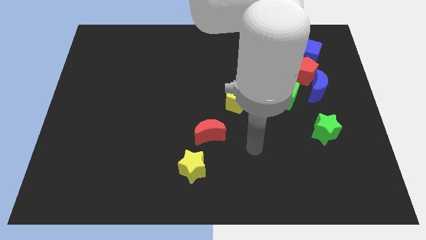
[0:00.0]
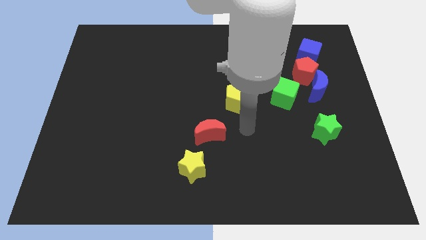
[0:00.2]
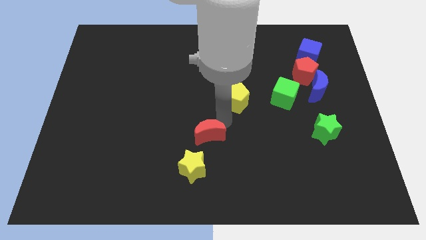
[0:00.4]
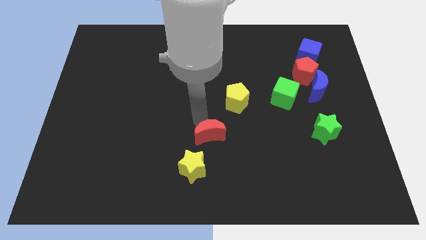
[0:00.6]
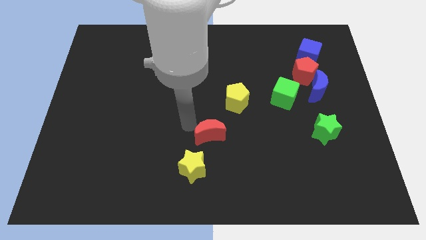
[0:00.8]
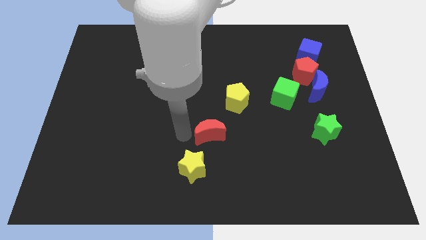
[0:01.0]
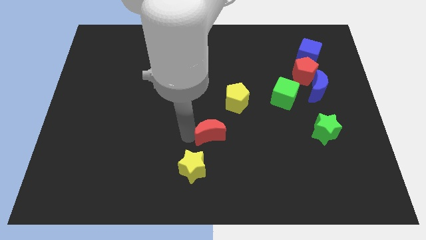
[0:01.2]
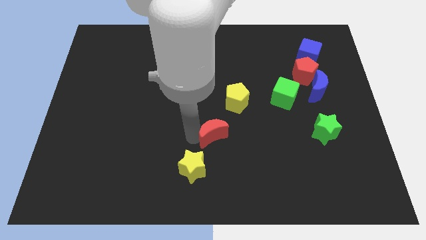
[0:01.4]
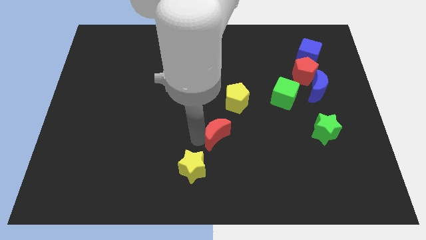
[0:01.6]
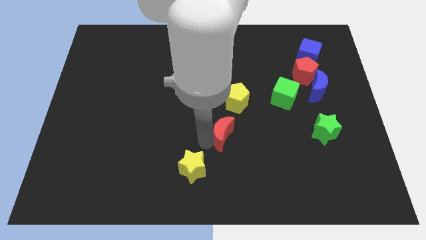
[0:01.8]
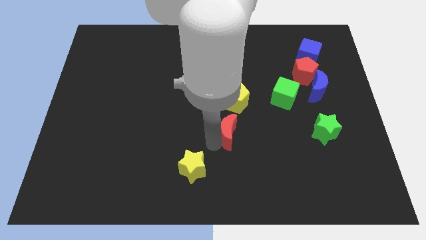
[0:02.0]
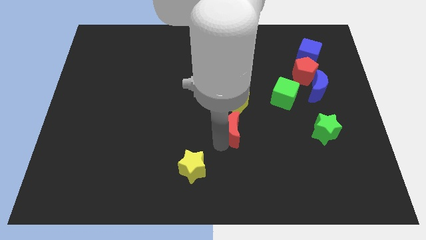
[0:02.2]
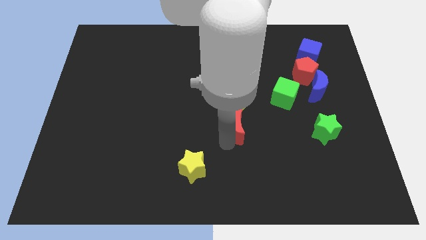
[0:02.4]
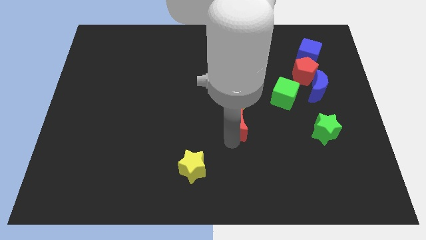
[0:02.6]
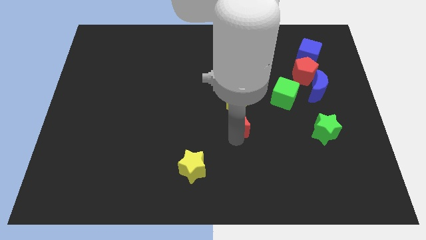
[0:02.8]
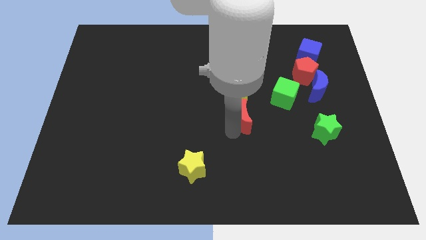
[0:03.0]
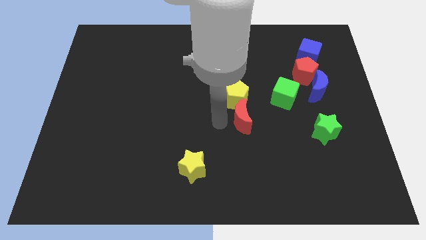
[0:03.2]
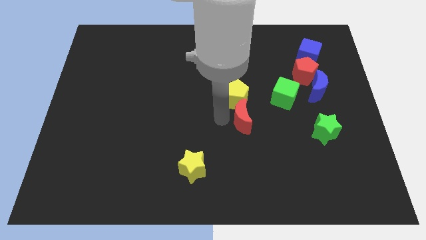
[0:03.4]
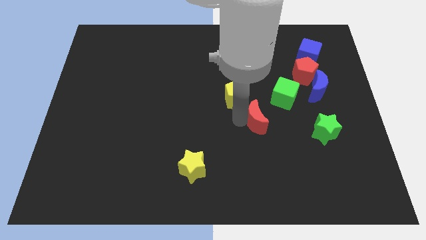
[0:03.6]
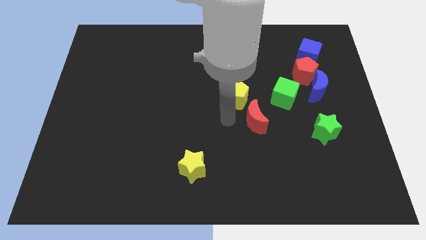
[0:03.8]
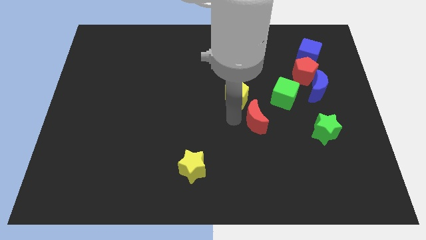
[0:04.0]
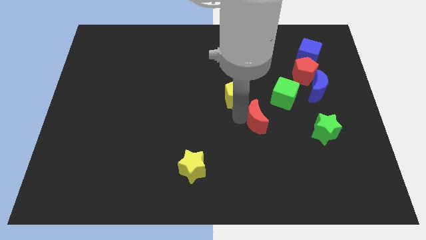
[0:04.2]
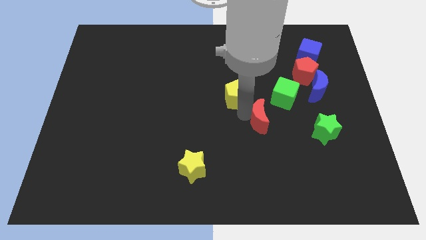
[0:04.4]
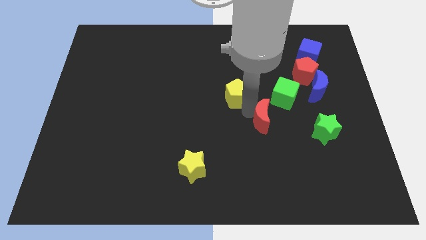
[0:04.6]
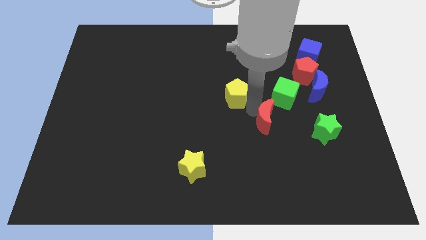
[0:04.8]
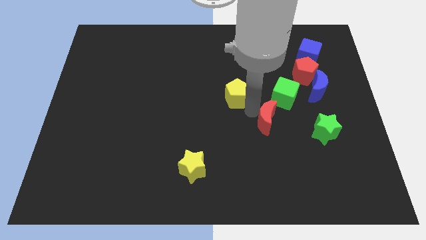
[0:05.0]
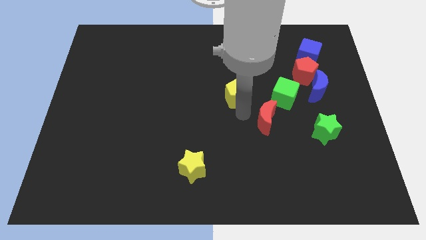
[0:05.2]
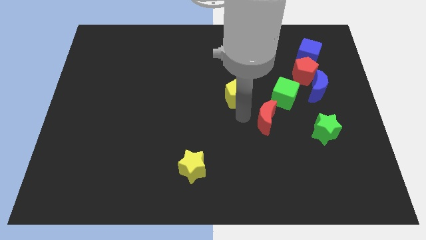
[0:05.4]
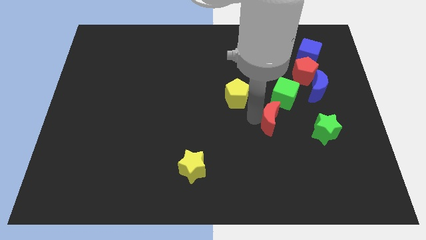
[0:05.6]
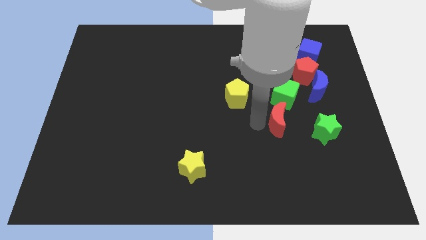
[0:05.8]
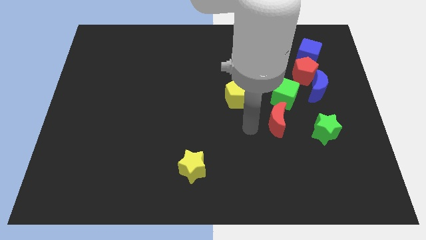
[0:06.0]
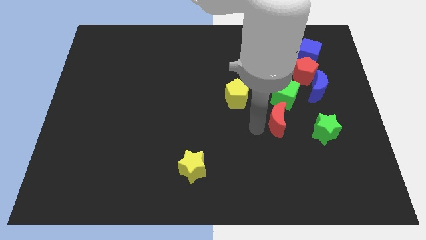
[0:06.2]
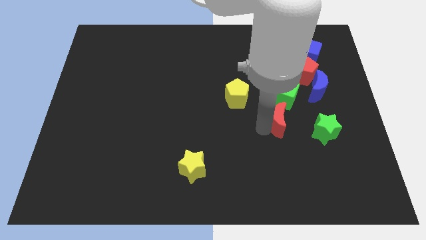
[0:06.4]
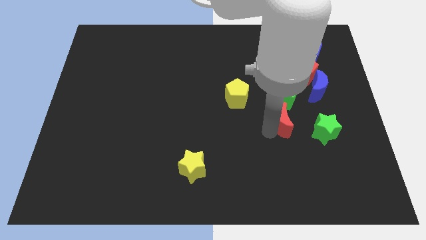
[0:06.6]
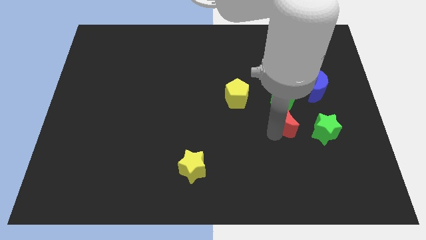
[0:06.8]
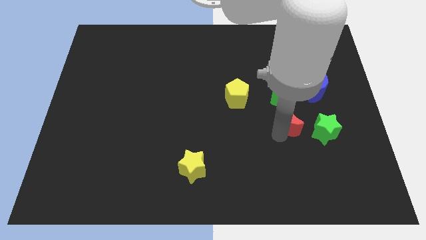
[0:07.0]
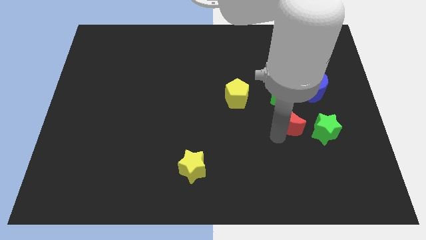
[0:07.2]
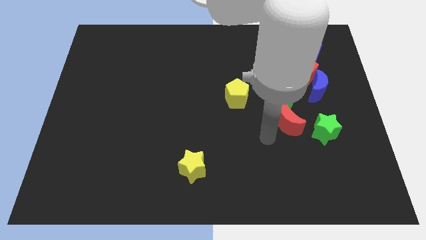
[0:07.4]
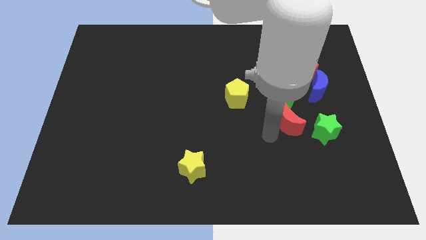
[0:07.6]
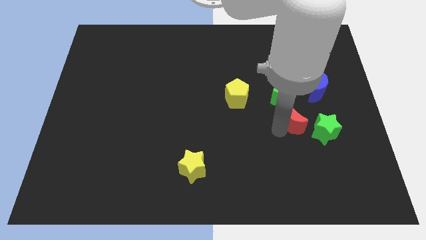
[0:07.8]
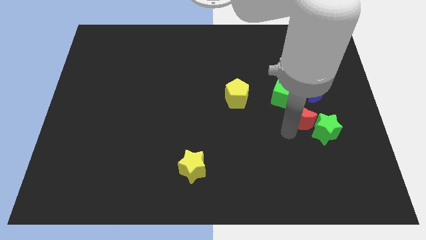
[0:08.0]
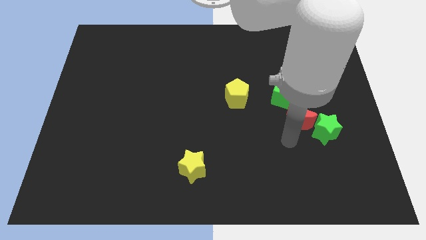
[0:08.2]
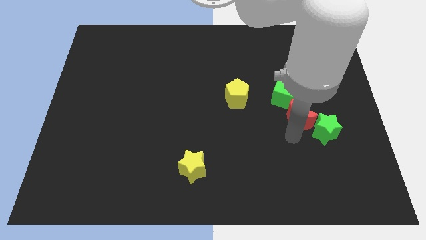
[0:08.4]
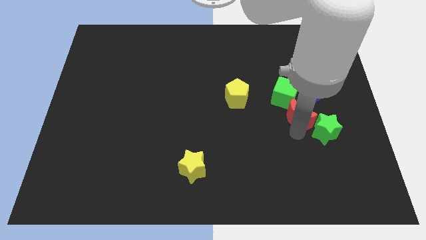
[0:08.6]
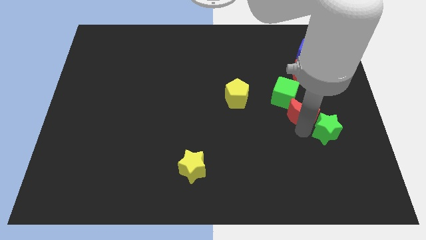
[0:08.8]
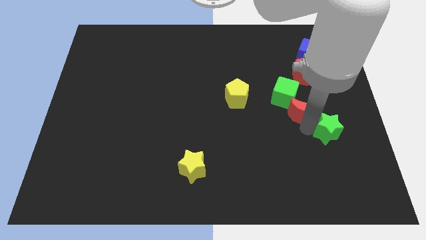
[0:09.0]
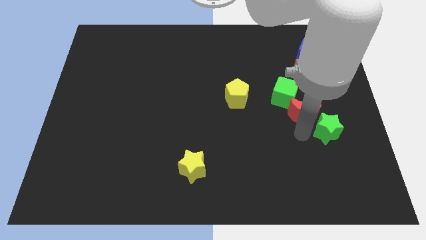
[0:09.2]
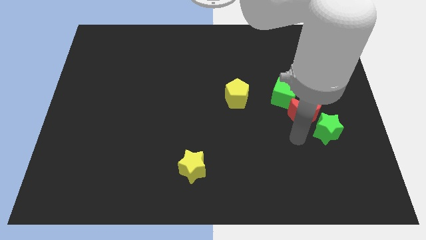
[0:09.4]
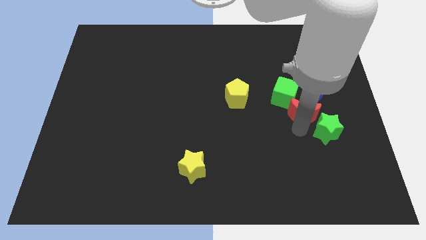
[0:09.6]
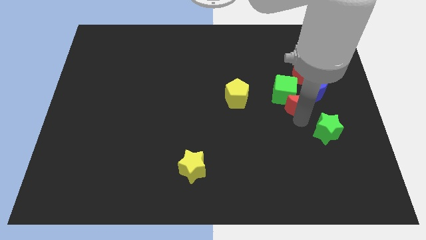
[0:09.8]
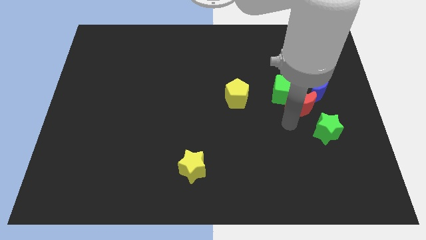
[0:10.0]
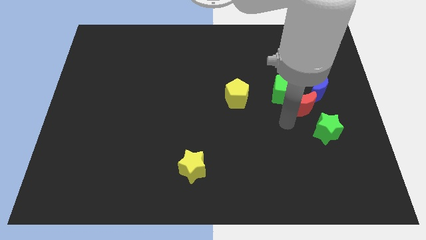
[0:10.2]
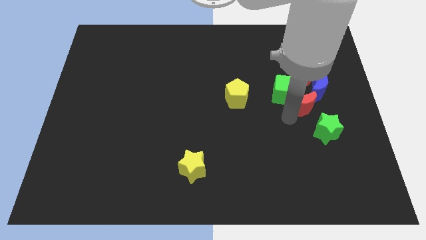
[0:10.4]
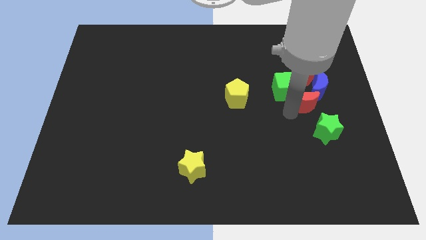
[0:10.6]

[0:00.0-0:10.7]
push the red moon to the blue moon

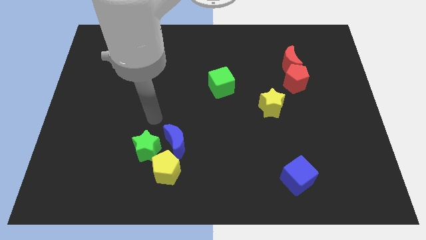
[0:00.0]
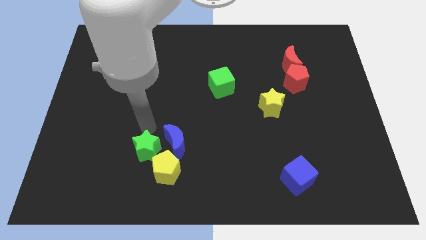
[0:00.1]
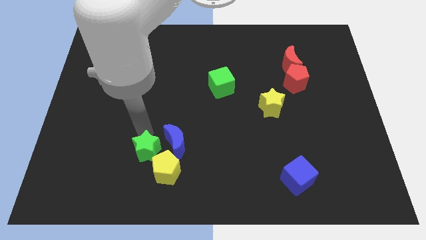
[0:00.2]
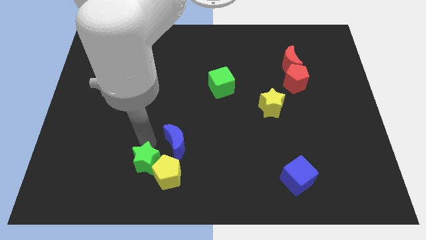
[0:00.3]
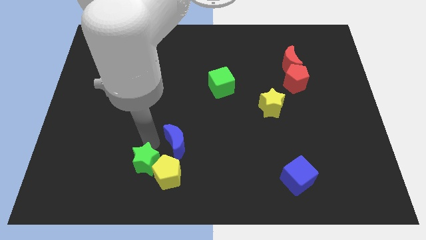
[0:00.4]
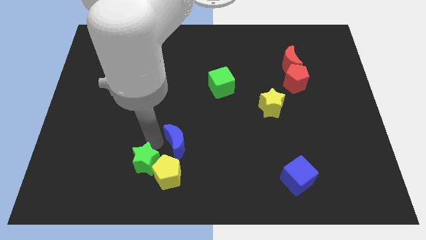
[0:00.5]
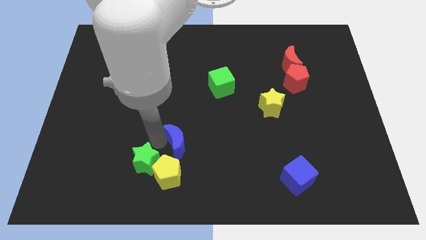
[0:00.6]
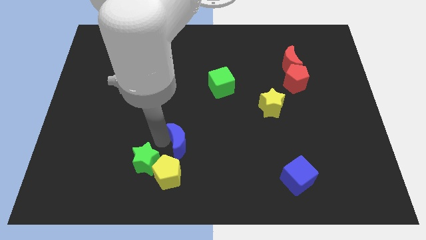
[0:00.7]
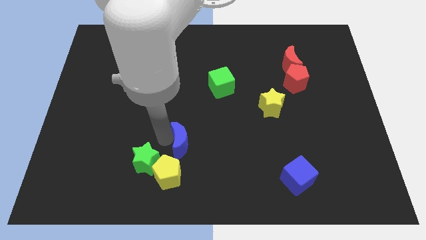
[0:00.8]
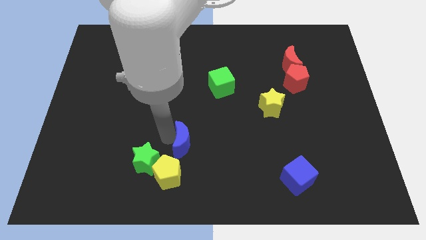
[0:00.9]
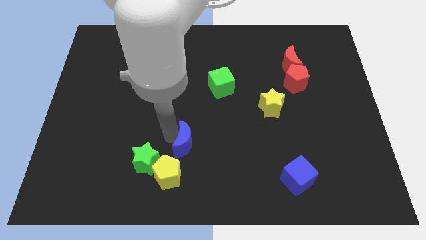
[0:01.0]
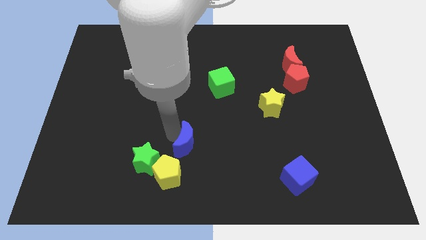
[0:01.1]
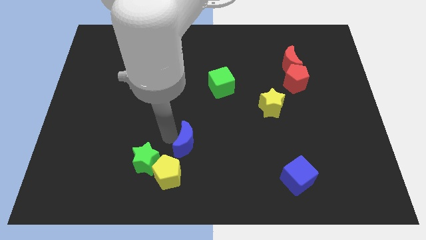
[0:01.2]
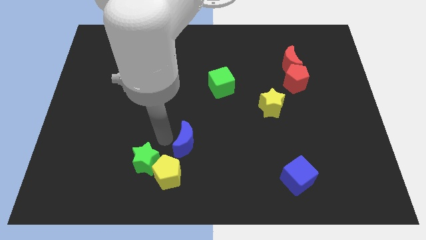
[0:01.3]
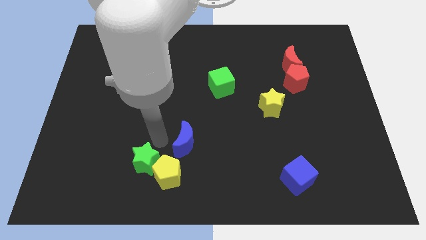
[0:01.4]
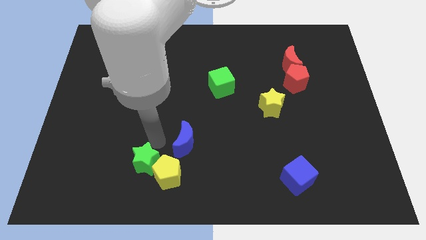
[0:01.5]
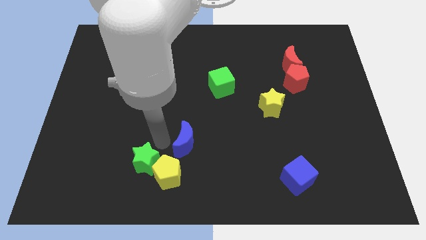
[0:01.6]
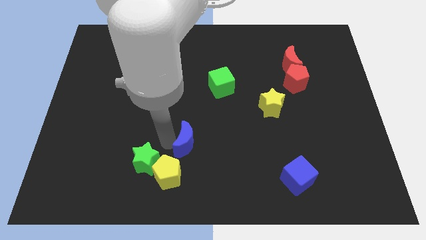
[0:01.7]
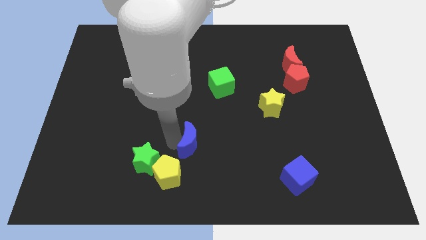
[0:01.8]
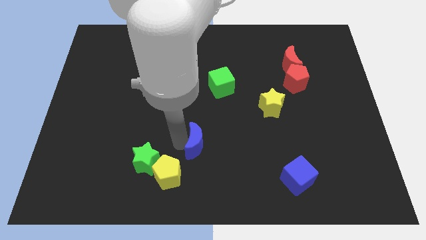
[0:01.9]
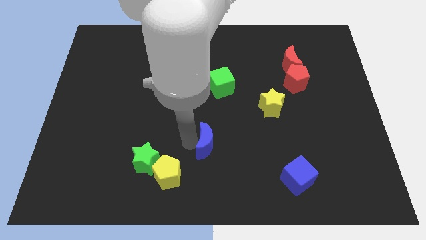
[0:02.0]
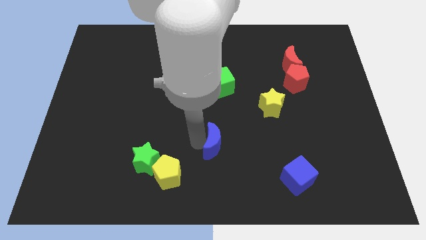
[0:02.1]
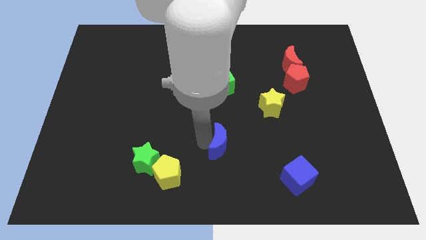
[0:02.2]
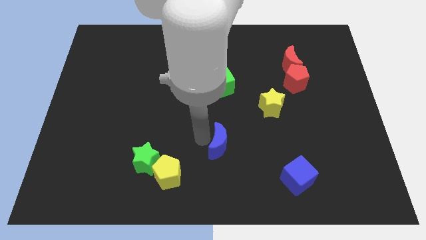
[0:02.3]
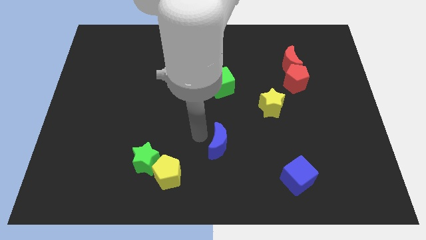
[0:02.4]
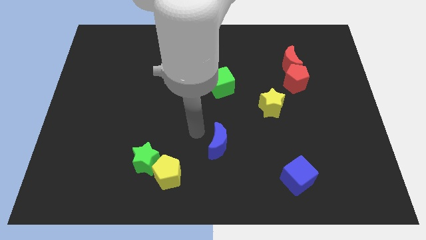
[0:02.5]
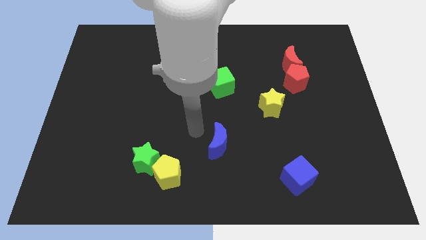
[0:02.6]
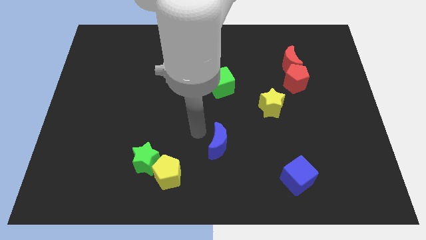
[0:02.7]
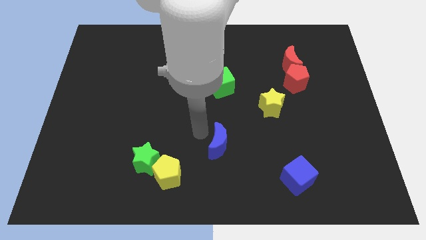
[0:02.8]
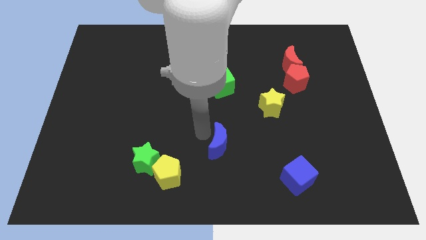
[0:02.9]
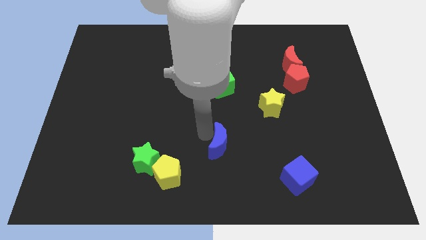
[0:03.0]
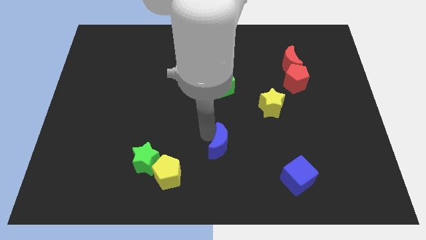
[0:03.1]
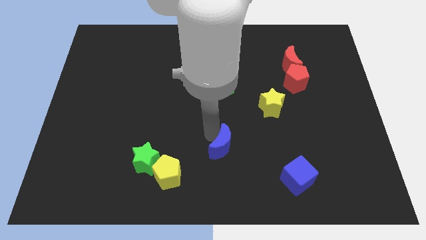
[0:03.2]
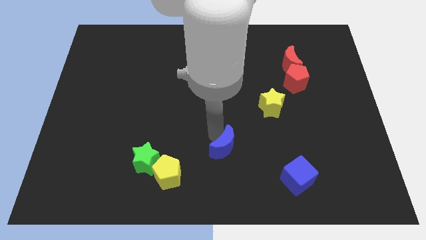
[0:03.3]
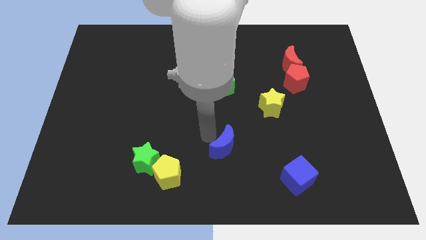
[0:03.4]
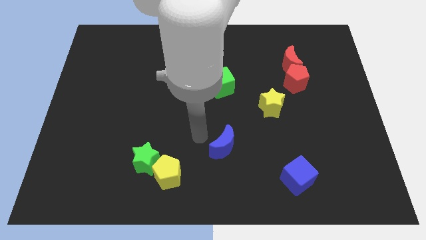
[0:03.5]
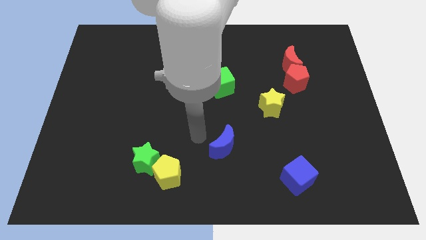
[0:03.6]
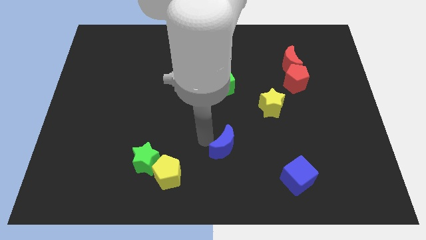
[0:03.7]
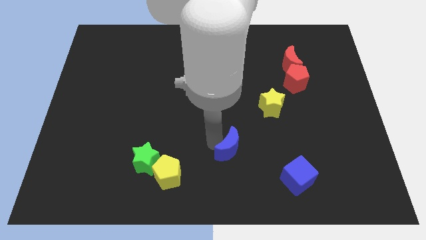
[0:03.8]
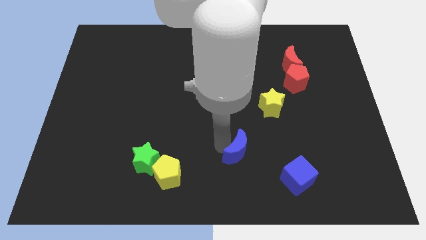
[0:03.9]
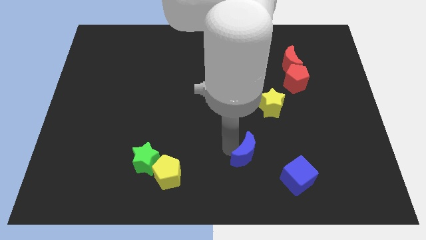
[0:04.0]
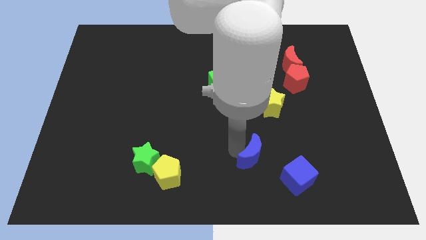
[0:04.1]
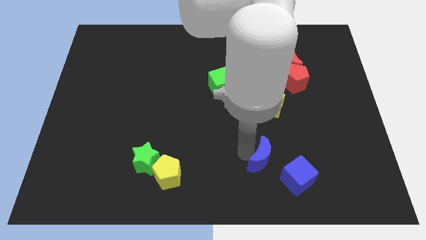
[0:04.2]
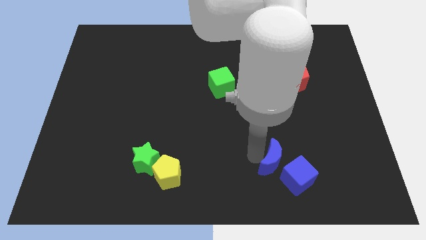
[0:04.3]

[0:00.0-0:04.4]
slide the blue moon next to the blue cube
